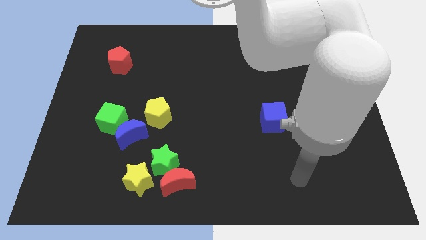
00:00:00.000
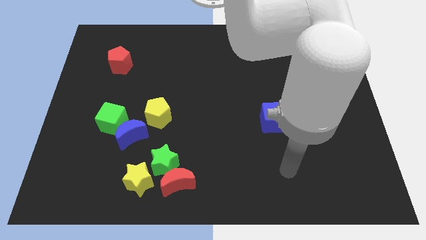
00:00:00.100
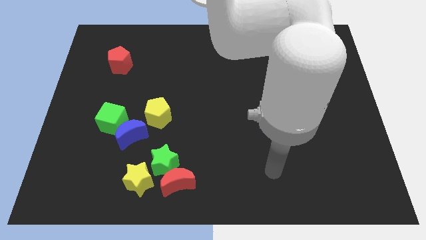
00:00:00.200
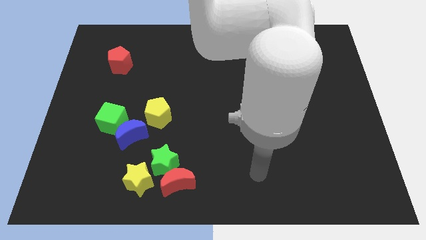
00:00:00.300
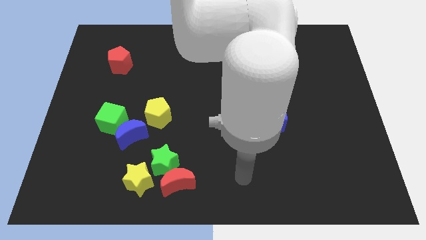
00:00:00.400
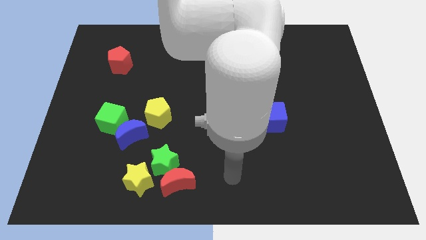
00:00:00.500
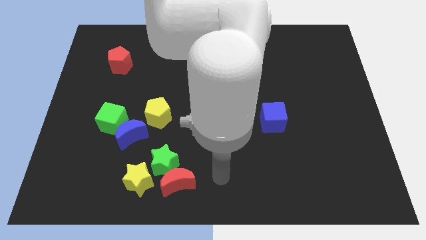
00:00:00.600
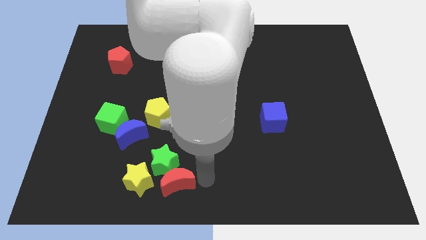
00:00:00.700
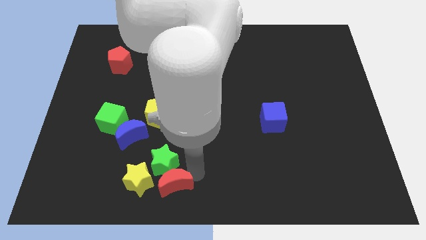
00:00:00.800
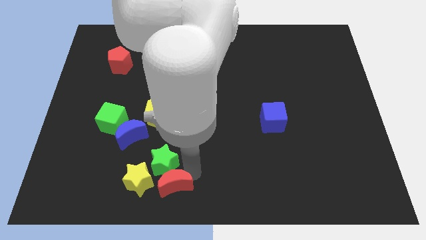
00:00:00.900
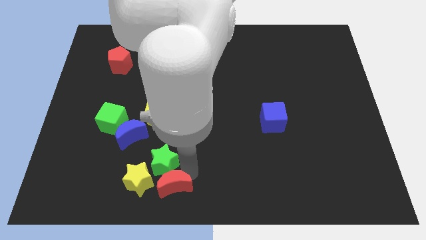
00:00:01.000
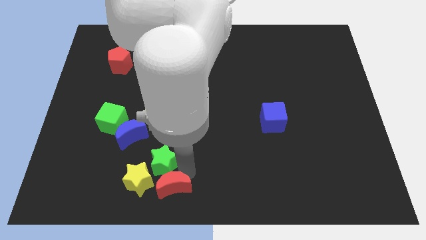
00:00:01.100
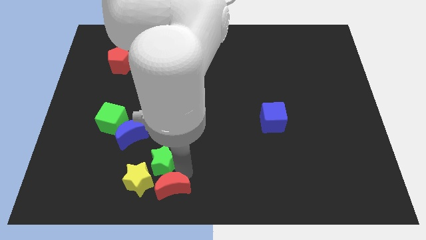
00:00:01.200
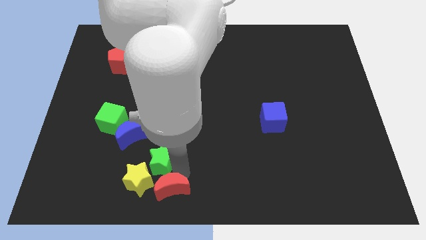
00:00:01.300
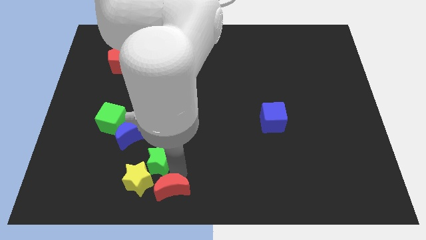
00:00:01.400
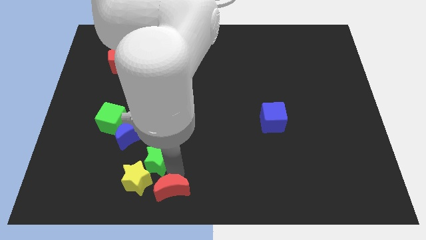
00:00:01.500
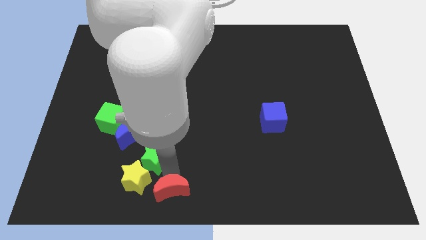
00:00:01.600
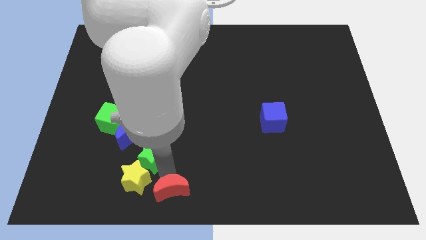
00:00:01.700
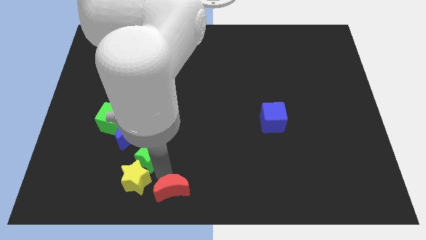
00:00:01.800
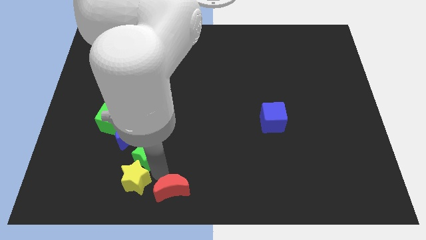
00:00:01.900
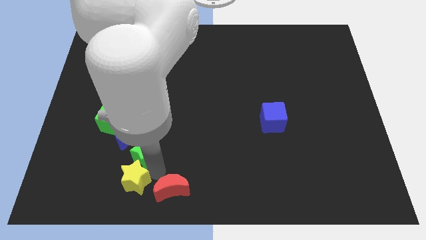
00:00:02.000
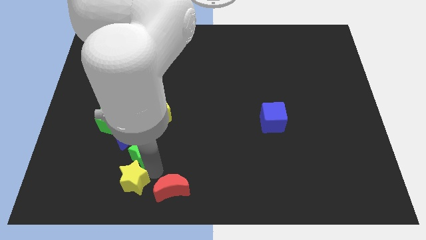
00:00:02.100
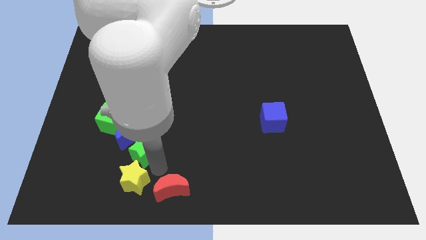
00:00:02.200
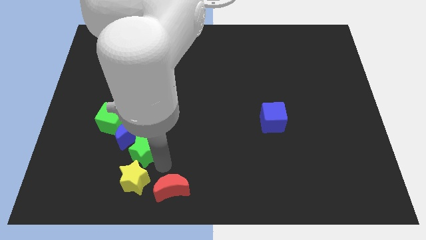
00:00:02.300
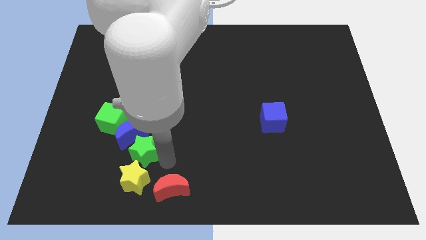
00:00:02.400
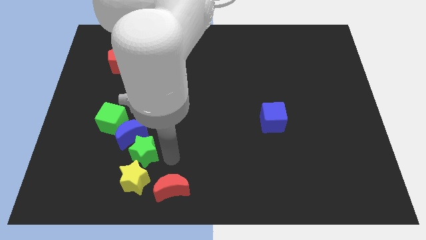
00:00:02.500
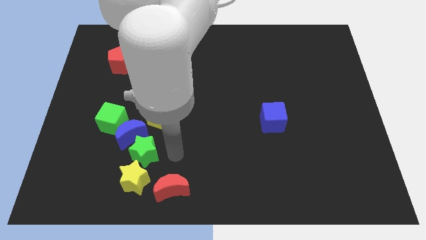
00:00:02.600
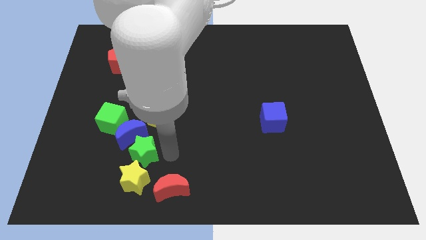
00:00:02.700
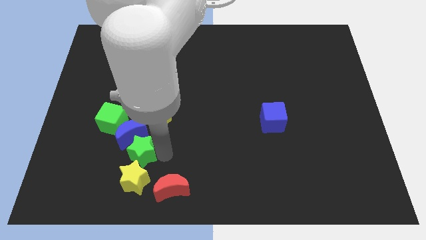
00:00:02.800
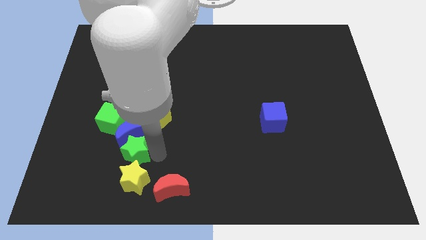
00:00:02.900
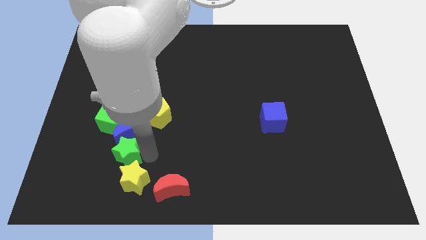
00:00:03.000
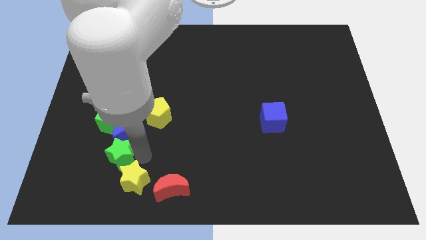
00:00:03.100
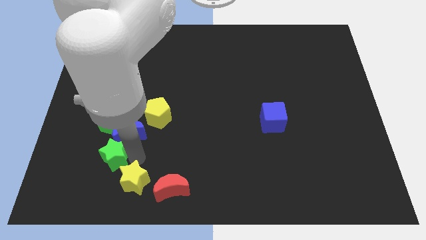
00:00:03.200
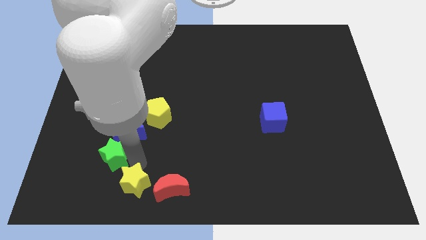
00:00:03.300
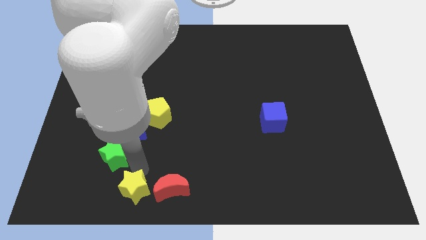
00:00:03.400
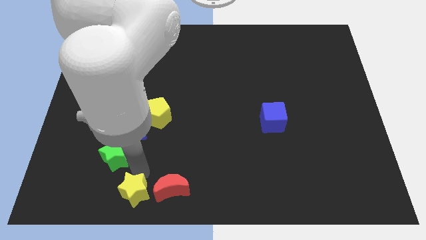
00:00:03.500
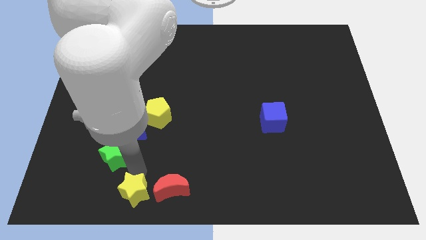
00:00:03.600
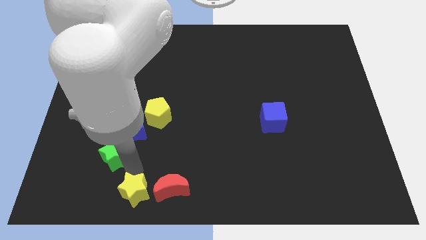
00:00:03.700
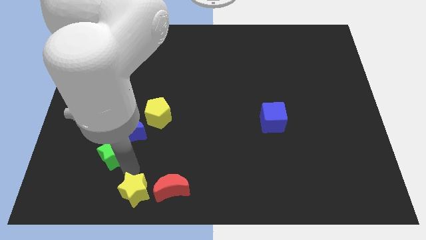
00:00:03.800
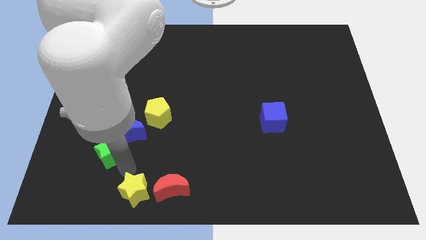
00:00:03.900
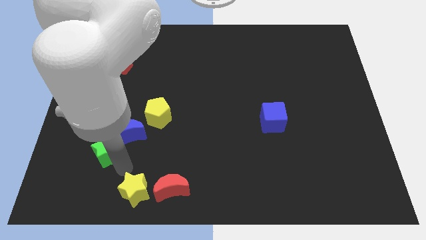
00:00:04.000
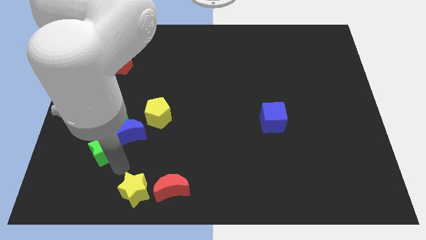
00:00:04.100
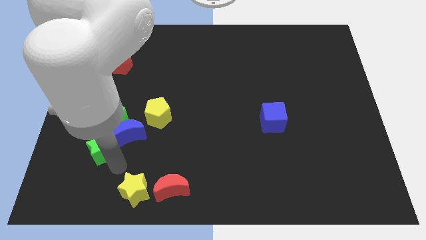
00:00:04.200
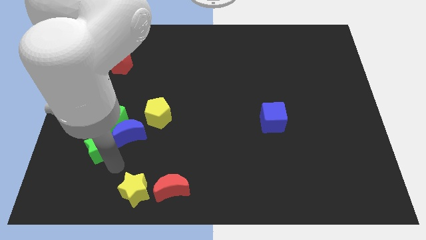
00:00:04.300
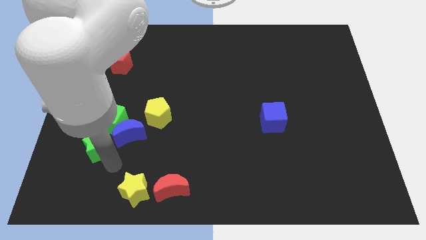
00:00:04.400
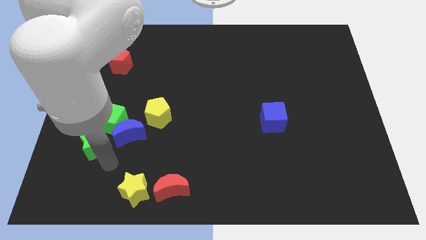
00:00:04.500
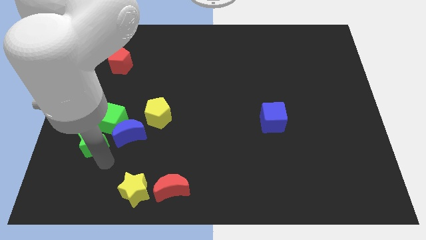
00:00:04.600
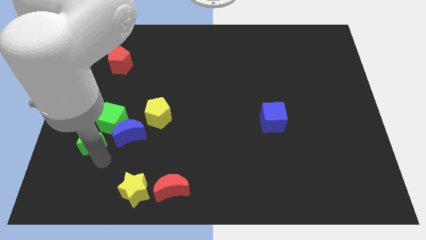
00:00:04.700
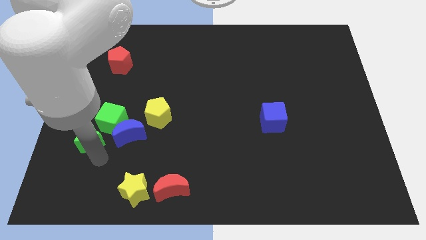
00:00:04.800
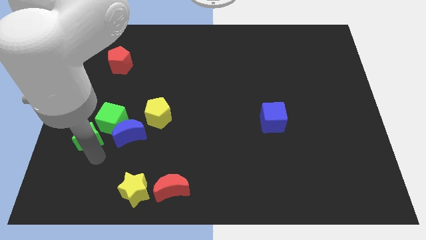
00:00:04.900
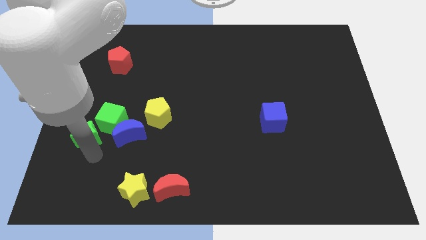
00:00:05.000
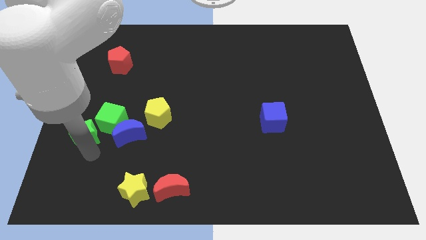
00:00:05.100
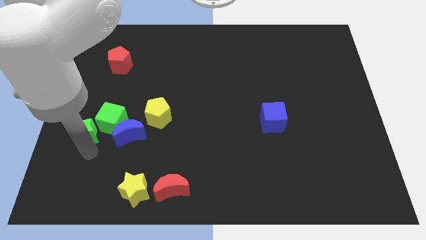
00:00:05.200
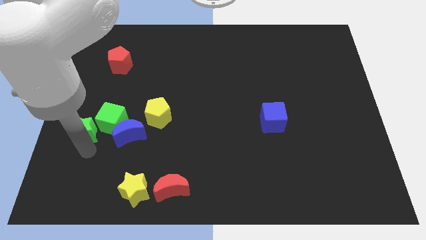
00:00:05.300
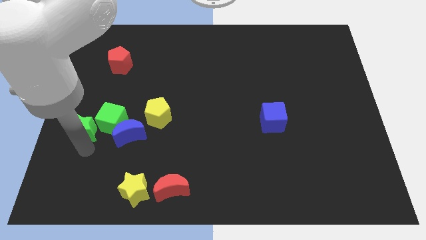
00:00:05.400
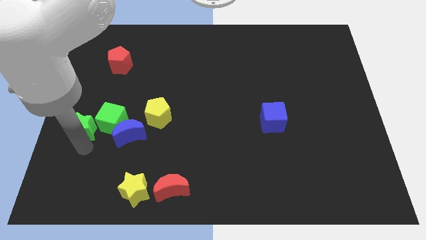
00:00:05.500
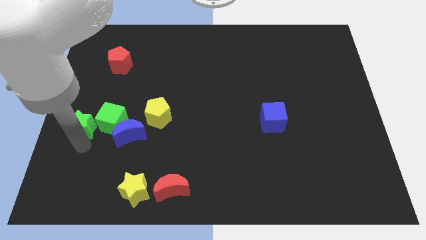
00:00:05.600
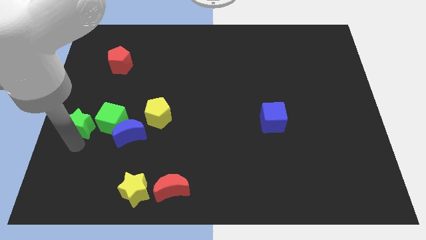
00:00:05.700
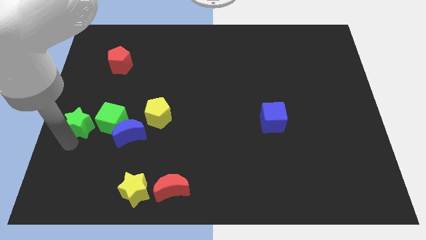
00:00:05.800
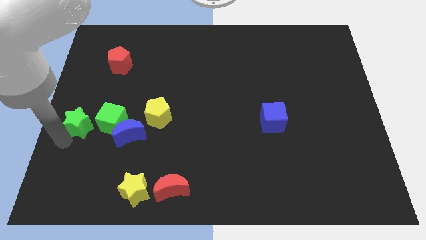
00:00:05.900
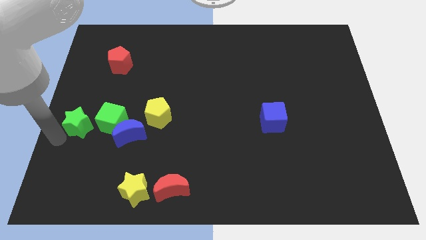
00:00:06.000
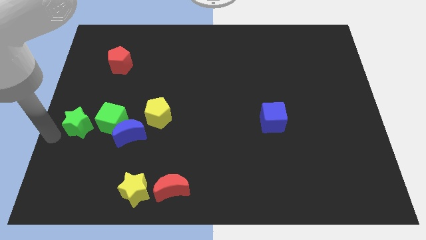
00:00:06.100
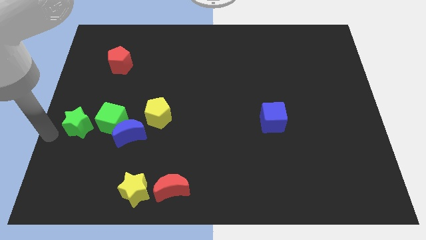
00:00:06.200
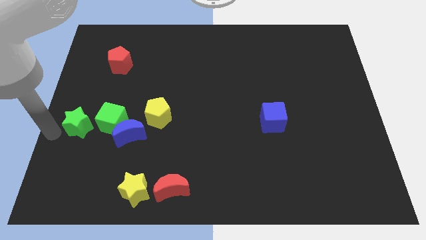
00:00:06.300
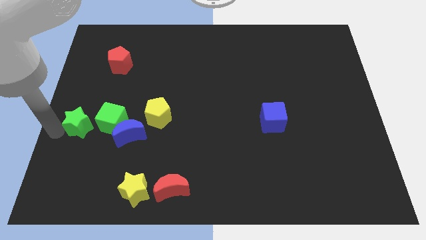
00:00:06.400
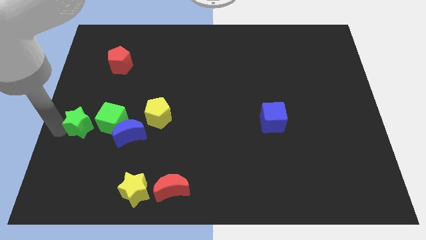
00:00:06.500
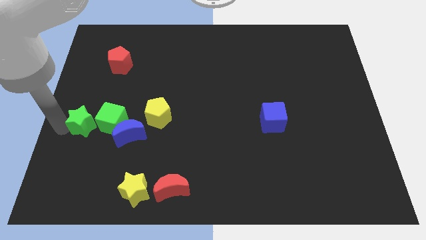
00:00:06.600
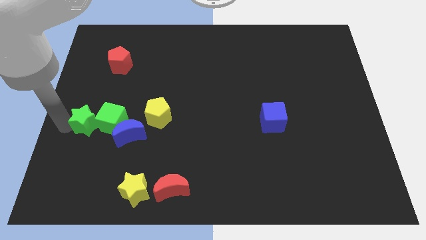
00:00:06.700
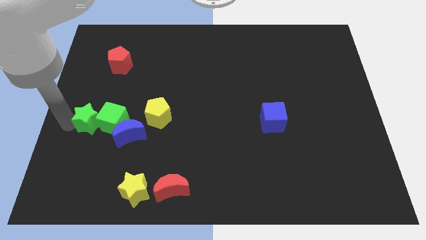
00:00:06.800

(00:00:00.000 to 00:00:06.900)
push the green star to the top left of the blue moon

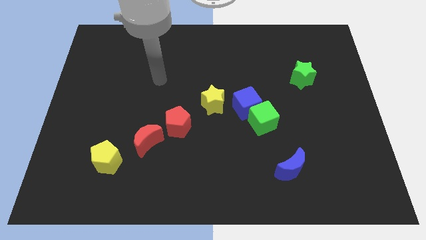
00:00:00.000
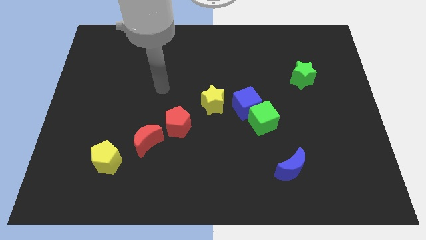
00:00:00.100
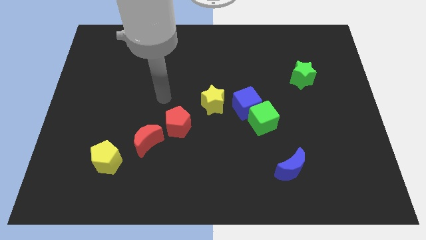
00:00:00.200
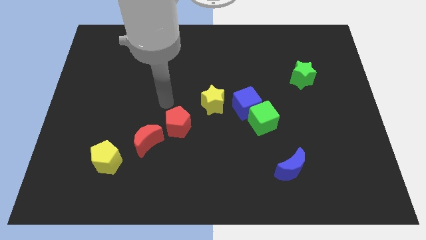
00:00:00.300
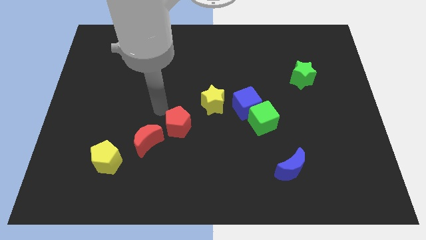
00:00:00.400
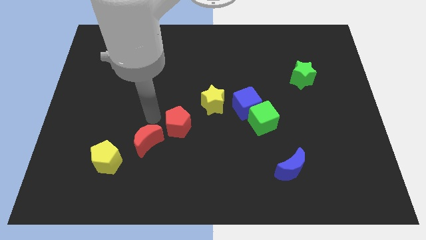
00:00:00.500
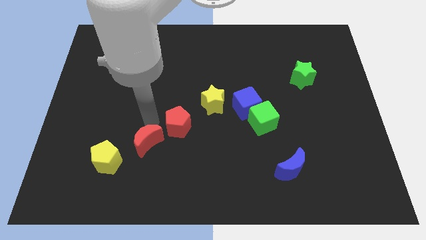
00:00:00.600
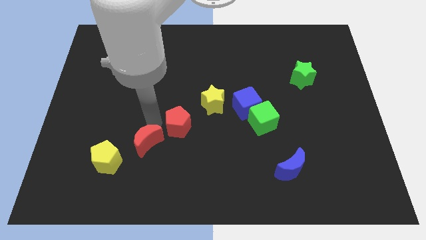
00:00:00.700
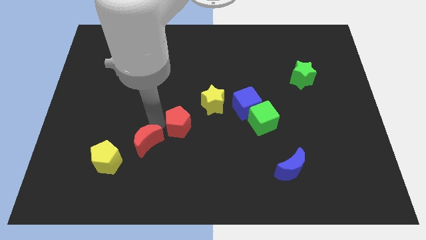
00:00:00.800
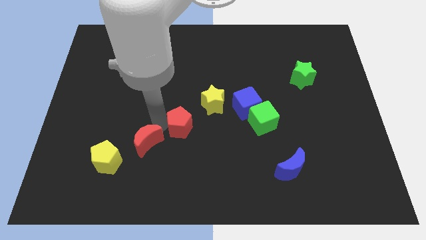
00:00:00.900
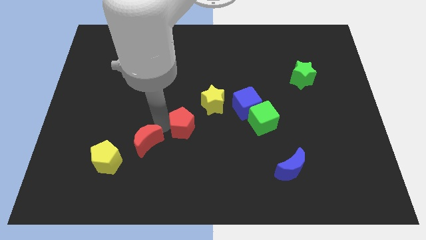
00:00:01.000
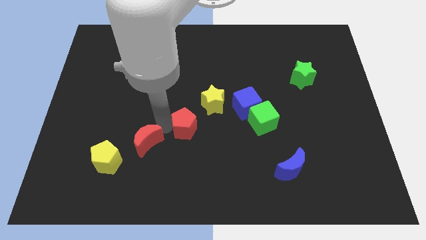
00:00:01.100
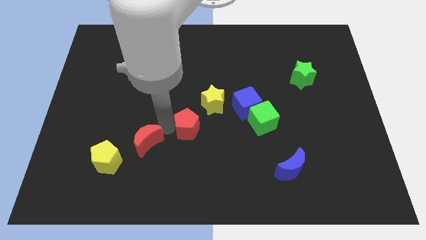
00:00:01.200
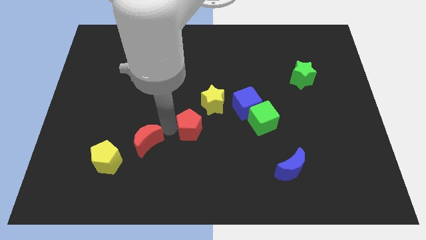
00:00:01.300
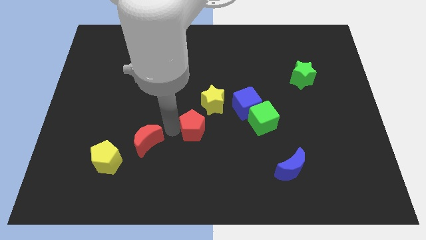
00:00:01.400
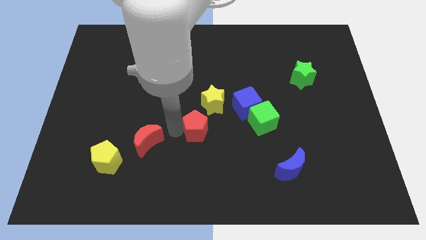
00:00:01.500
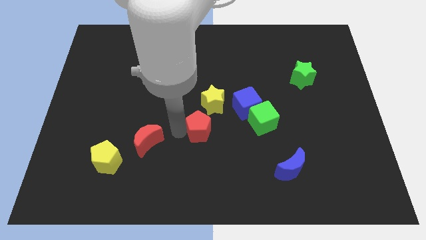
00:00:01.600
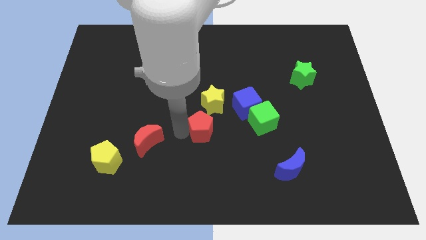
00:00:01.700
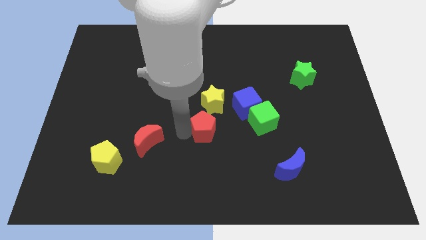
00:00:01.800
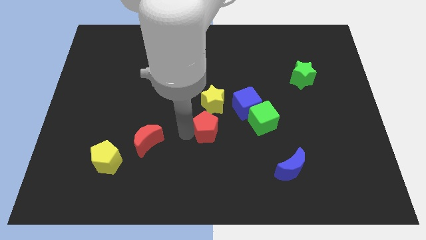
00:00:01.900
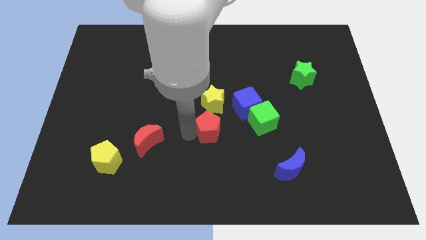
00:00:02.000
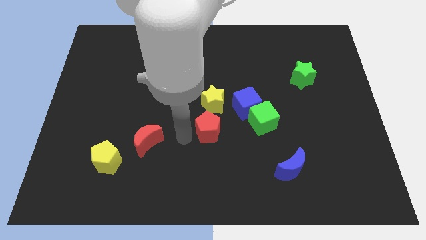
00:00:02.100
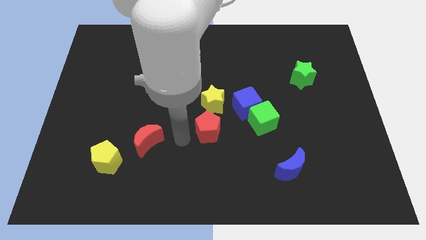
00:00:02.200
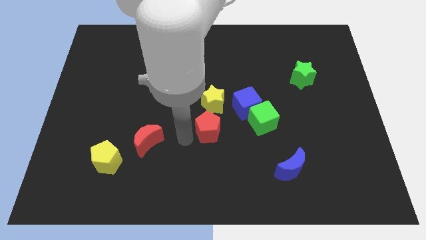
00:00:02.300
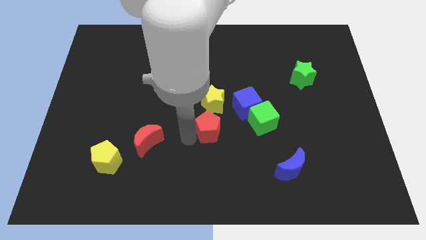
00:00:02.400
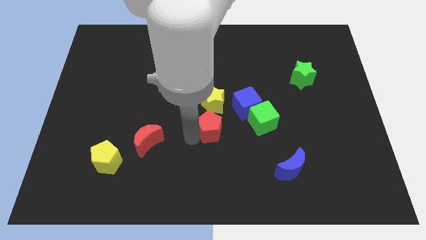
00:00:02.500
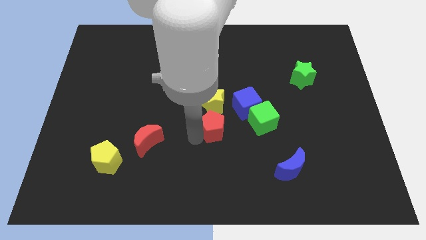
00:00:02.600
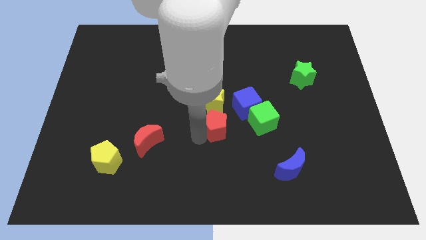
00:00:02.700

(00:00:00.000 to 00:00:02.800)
move the red pentagon to the bottom right of the yellow star
